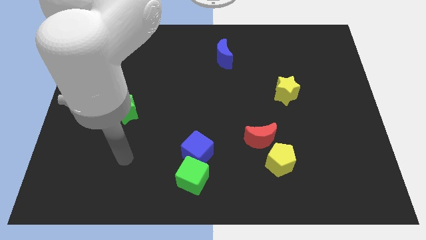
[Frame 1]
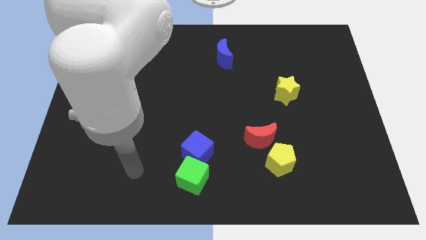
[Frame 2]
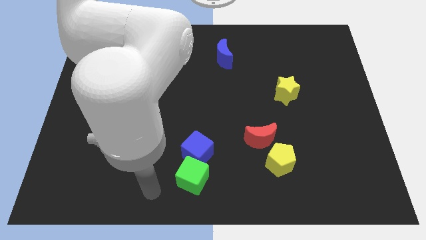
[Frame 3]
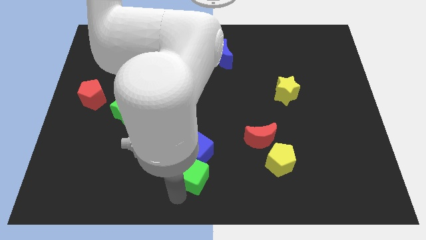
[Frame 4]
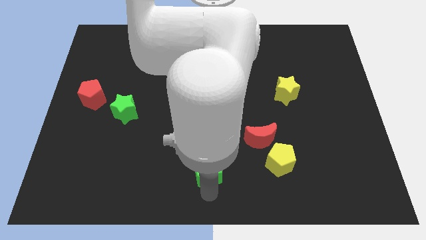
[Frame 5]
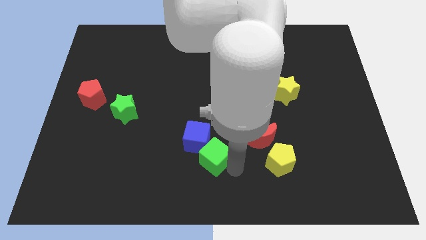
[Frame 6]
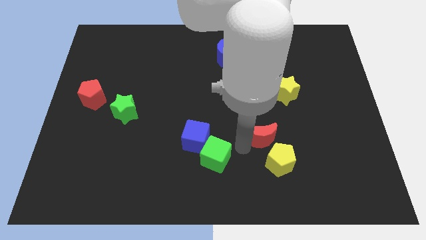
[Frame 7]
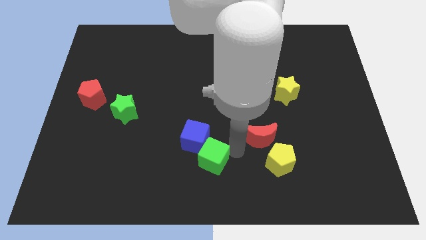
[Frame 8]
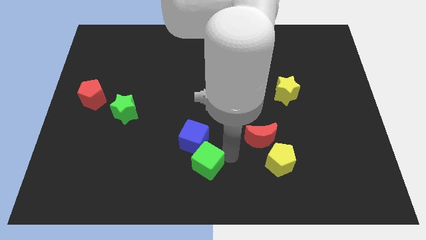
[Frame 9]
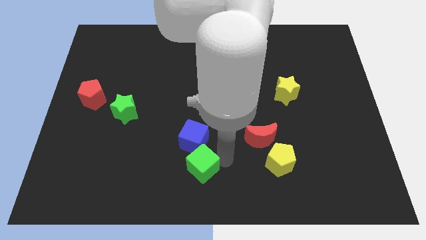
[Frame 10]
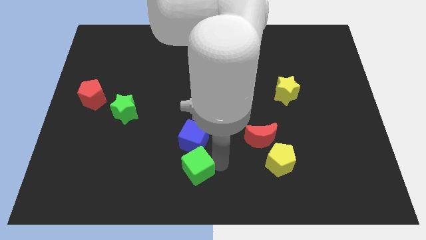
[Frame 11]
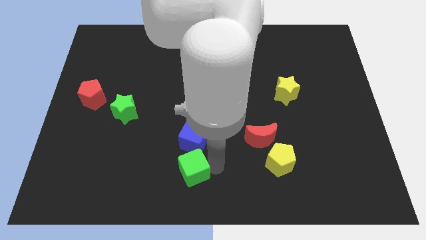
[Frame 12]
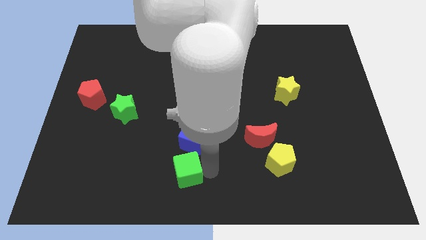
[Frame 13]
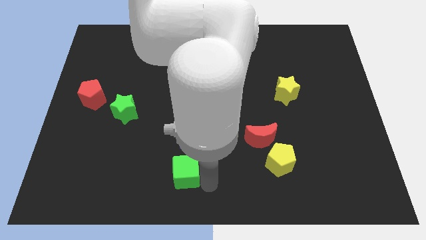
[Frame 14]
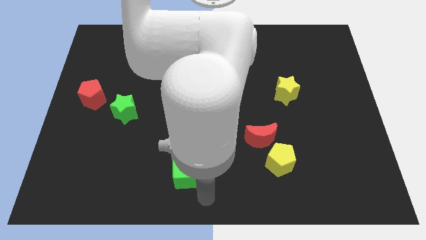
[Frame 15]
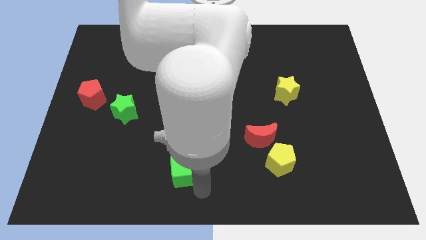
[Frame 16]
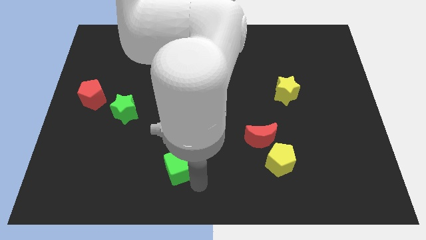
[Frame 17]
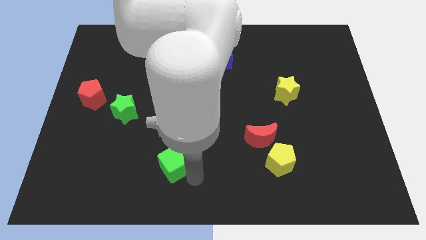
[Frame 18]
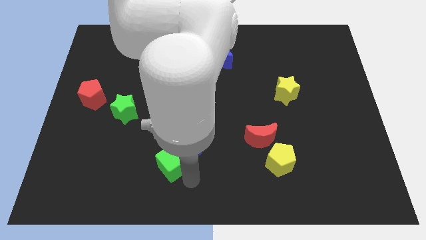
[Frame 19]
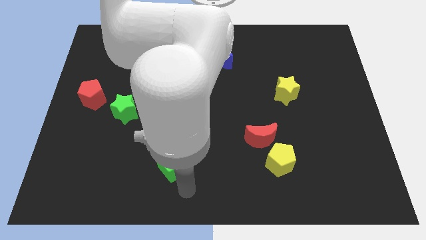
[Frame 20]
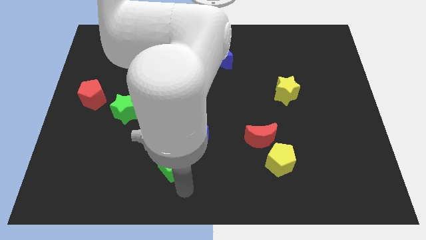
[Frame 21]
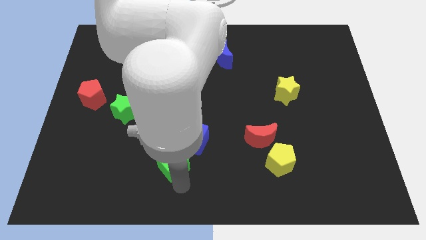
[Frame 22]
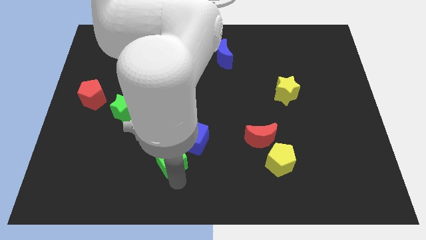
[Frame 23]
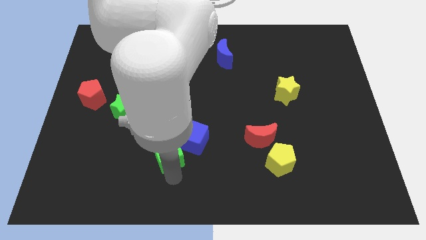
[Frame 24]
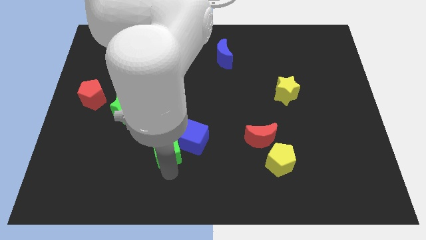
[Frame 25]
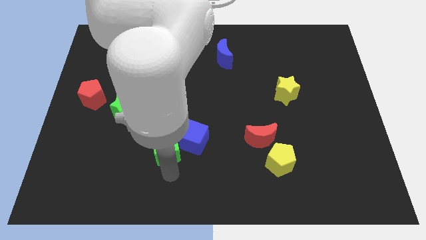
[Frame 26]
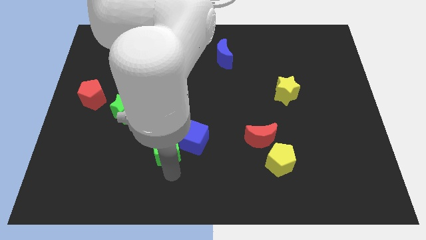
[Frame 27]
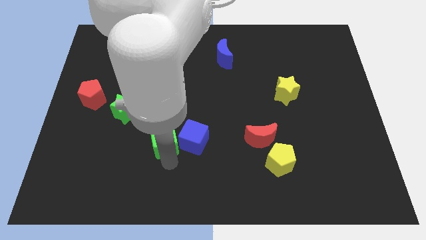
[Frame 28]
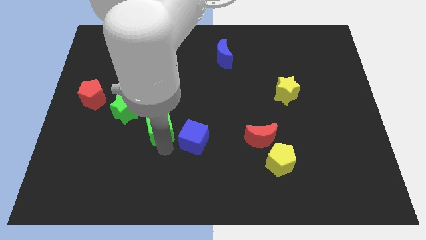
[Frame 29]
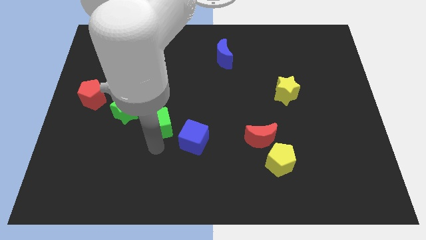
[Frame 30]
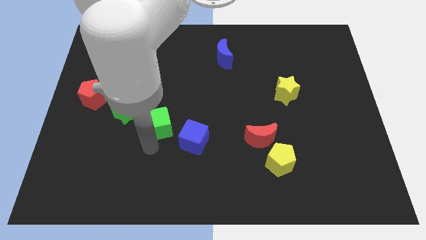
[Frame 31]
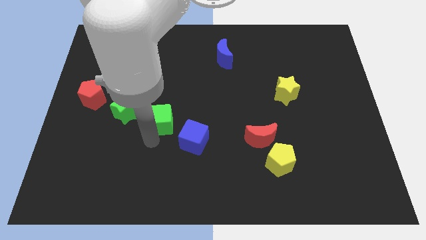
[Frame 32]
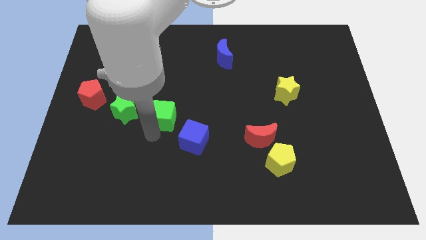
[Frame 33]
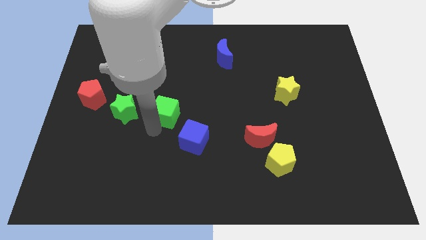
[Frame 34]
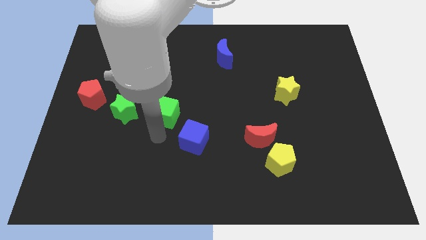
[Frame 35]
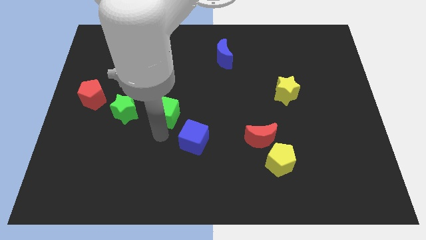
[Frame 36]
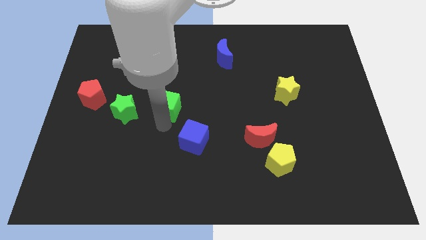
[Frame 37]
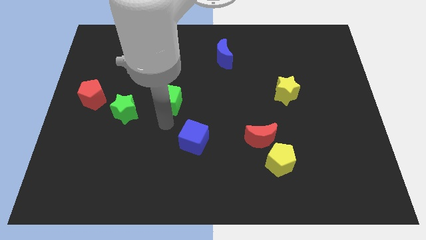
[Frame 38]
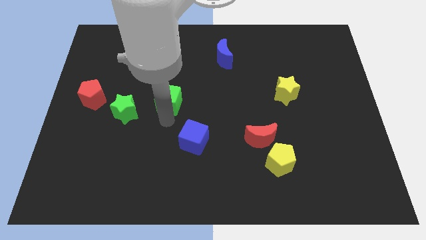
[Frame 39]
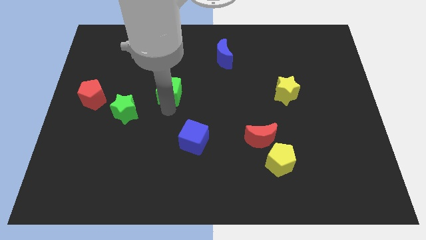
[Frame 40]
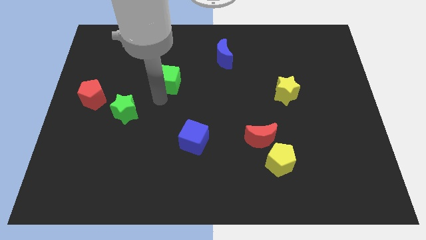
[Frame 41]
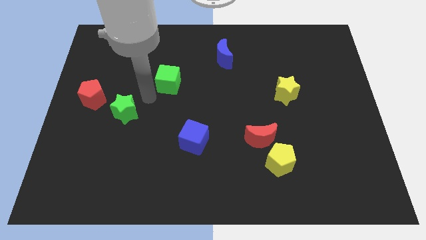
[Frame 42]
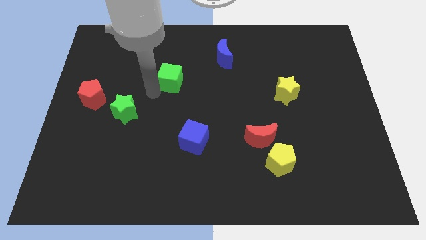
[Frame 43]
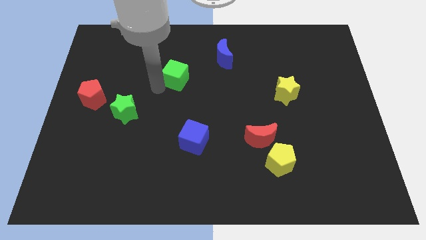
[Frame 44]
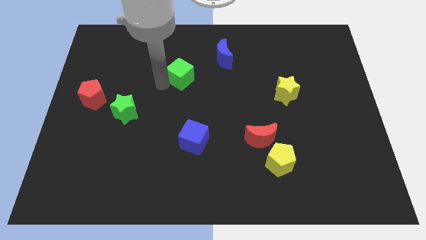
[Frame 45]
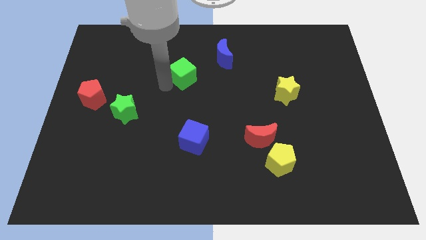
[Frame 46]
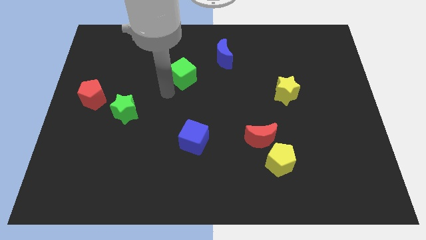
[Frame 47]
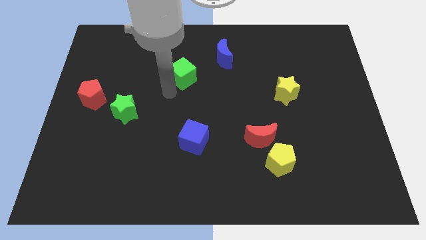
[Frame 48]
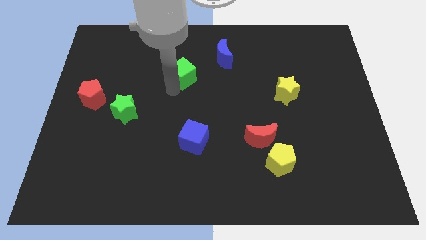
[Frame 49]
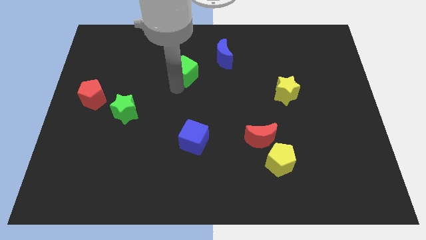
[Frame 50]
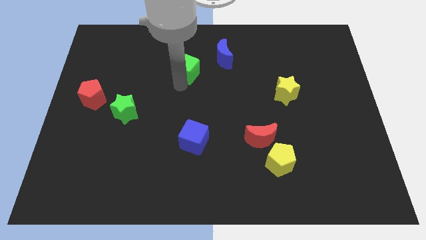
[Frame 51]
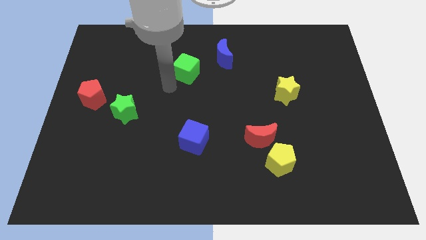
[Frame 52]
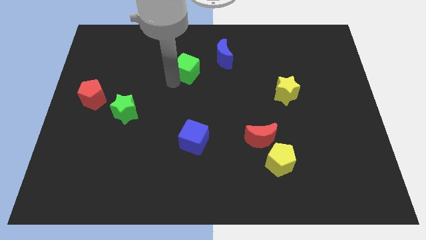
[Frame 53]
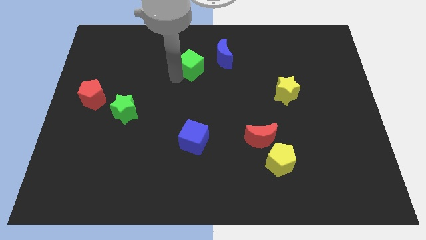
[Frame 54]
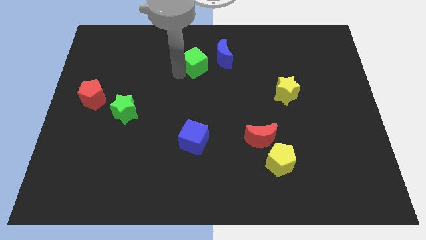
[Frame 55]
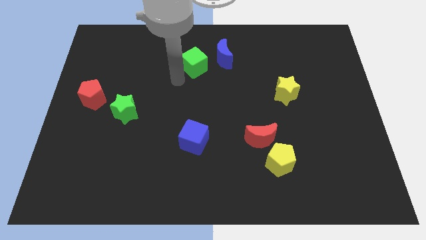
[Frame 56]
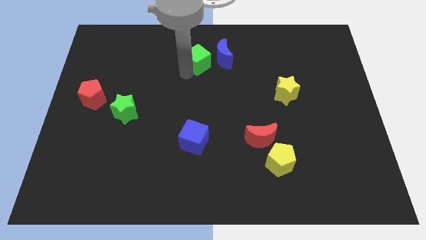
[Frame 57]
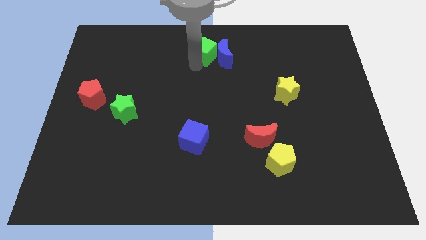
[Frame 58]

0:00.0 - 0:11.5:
push the green cube to the top
